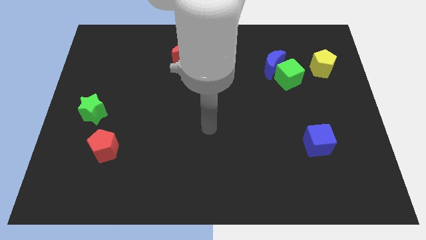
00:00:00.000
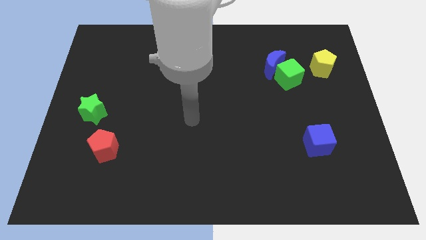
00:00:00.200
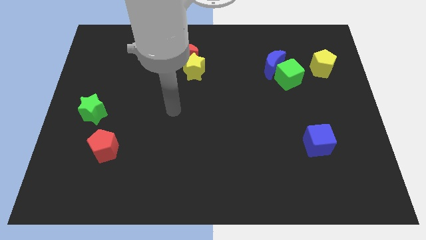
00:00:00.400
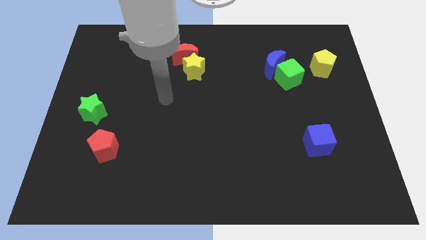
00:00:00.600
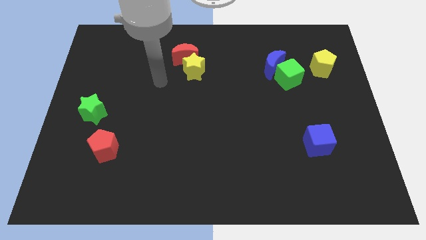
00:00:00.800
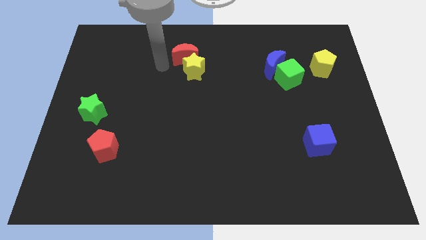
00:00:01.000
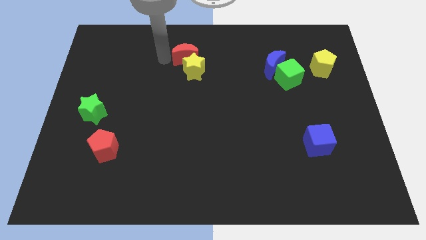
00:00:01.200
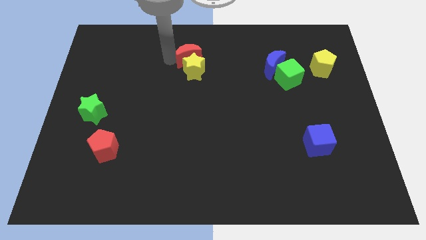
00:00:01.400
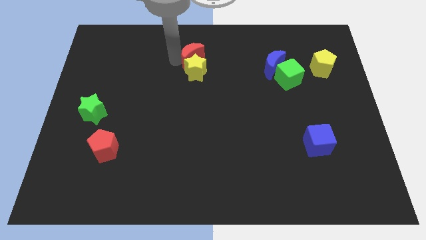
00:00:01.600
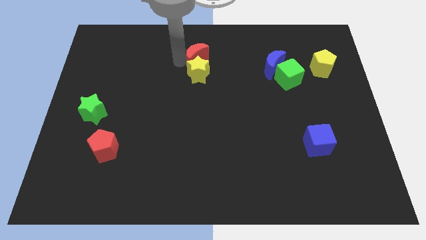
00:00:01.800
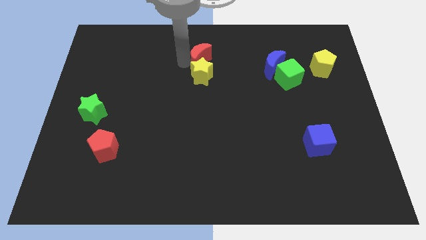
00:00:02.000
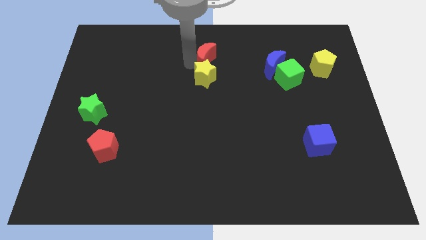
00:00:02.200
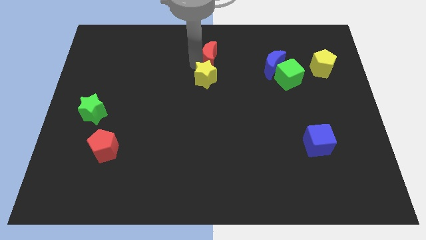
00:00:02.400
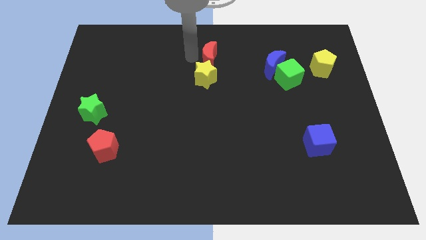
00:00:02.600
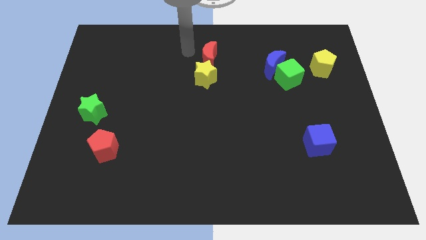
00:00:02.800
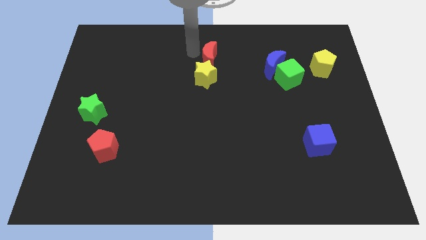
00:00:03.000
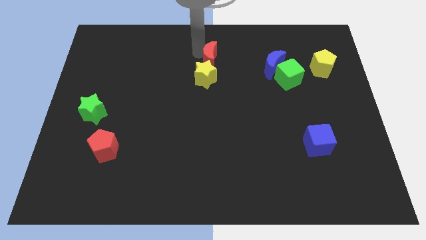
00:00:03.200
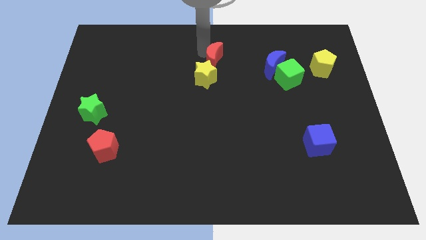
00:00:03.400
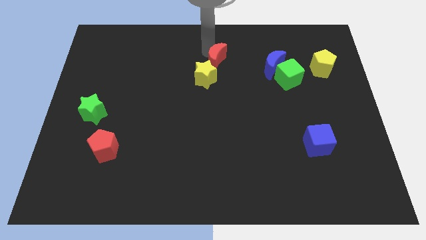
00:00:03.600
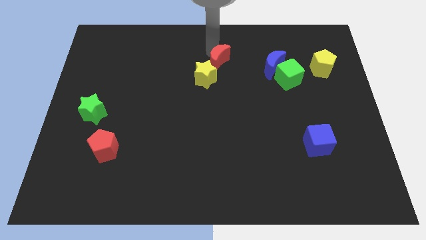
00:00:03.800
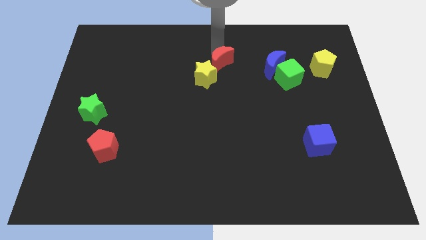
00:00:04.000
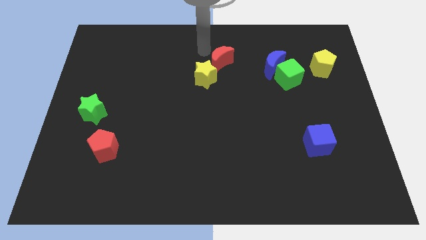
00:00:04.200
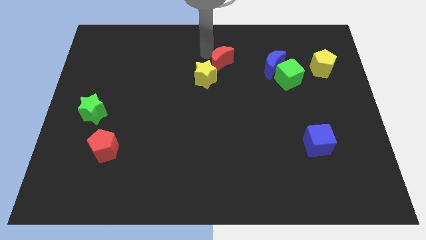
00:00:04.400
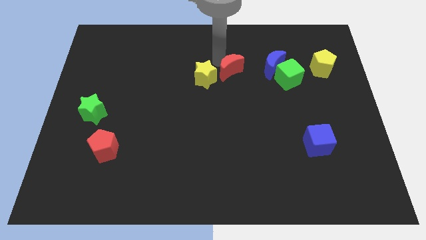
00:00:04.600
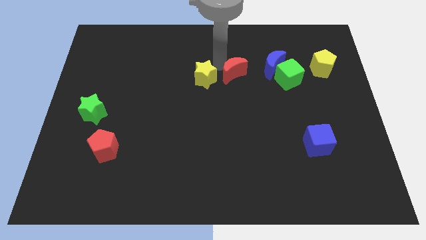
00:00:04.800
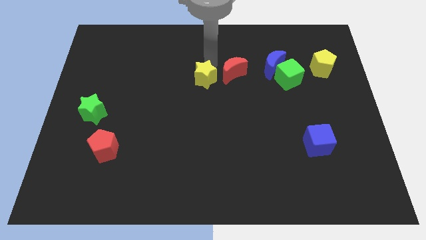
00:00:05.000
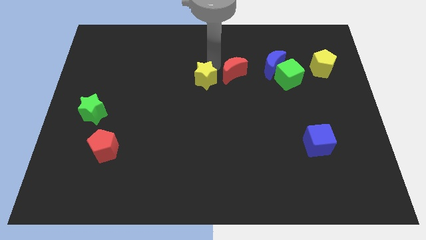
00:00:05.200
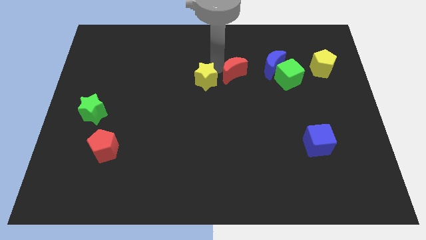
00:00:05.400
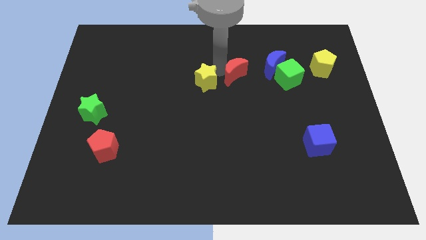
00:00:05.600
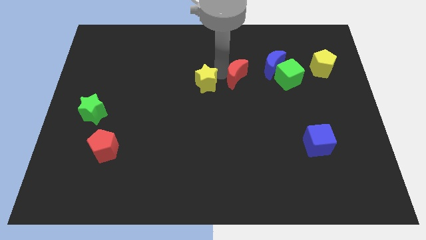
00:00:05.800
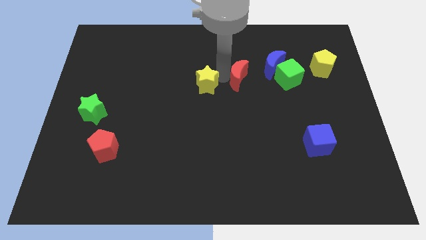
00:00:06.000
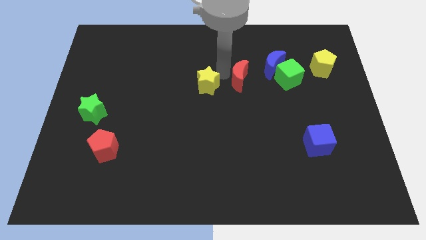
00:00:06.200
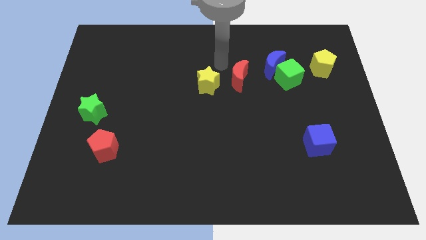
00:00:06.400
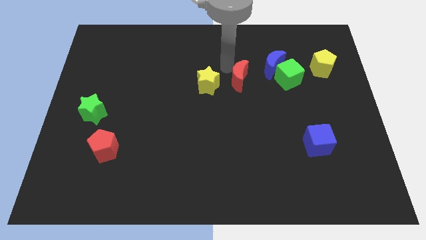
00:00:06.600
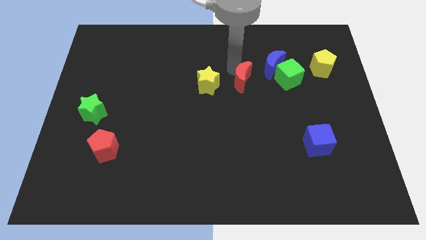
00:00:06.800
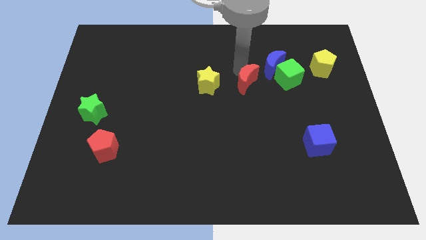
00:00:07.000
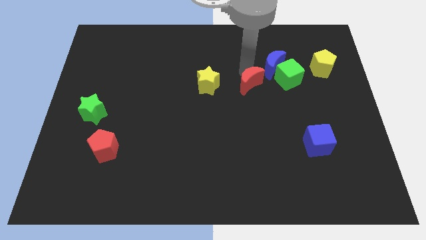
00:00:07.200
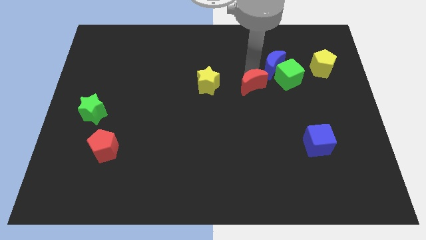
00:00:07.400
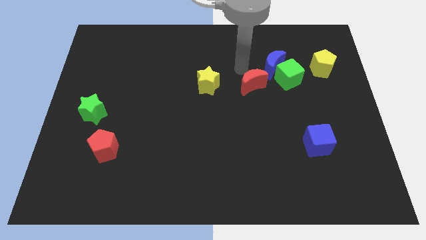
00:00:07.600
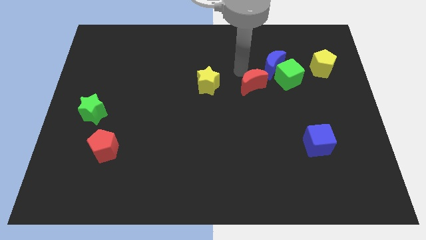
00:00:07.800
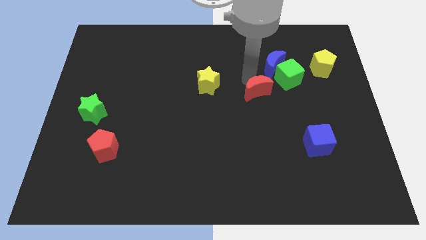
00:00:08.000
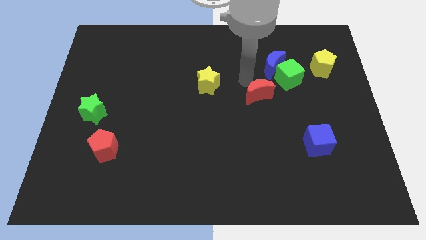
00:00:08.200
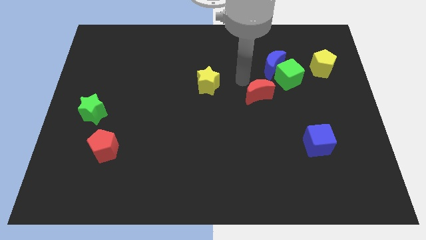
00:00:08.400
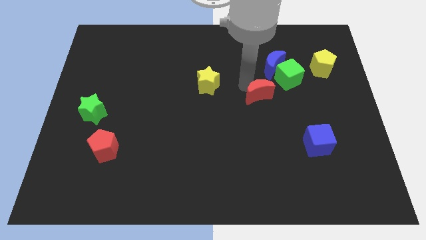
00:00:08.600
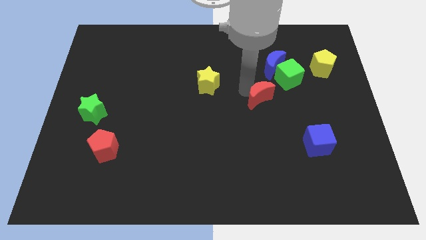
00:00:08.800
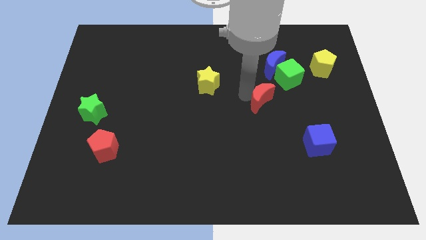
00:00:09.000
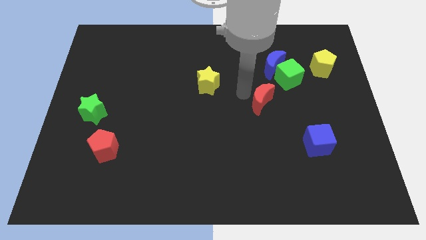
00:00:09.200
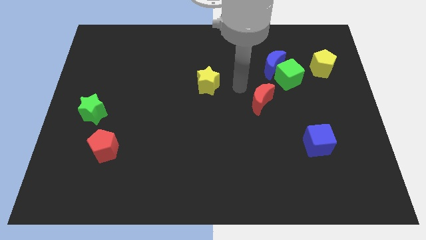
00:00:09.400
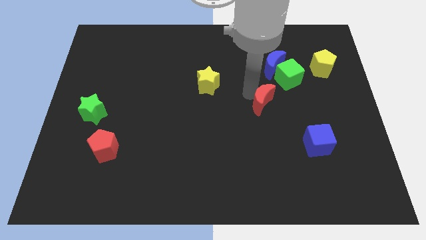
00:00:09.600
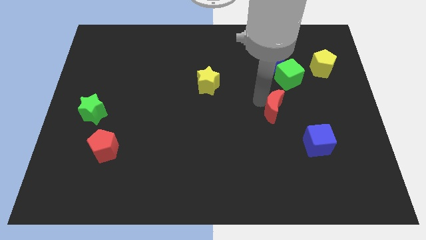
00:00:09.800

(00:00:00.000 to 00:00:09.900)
put the red moon to the top left side of the blue cube

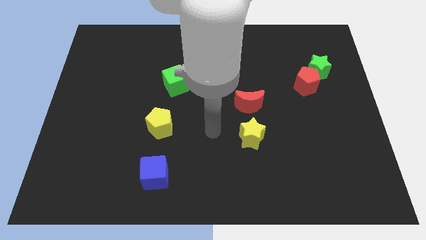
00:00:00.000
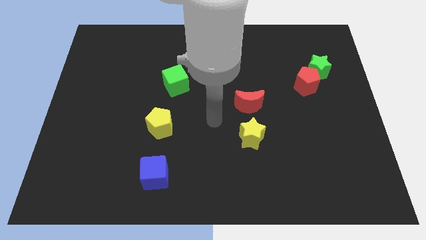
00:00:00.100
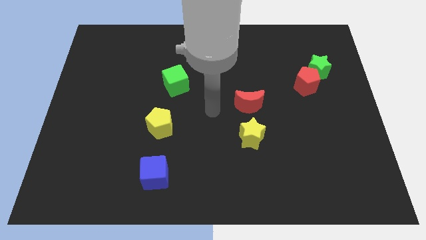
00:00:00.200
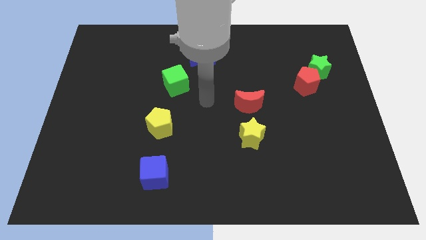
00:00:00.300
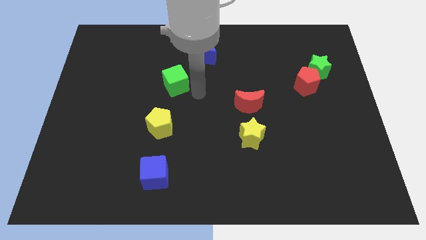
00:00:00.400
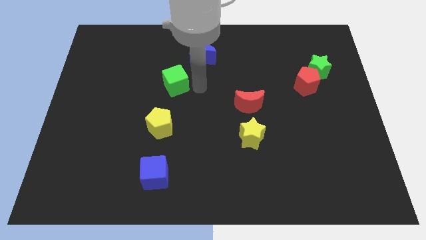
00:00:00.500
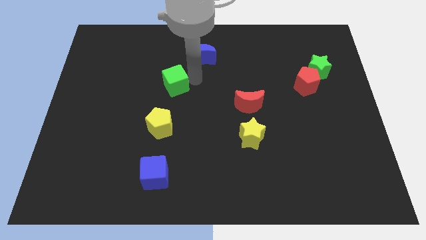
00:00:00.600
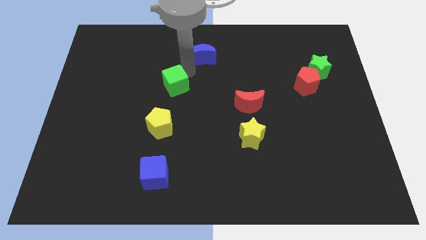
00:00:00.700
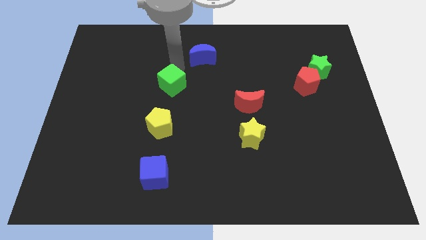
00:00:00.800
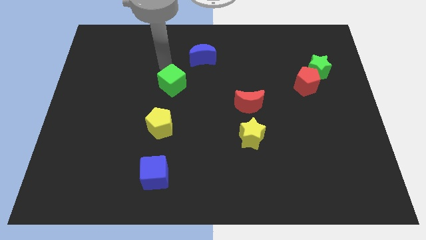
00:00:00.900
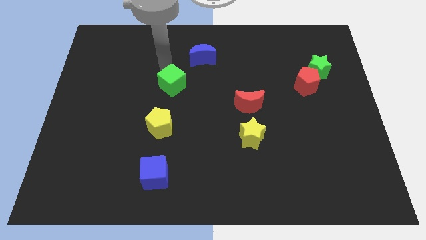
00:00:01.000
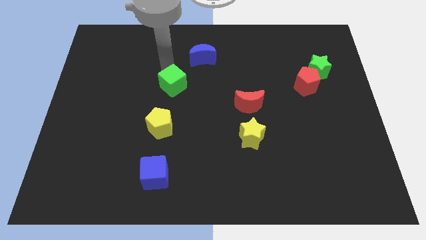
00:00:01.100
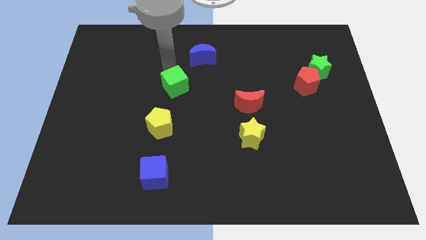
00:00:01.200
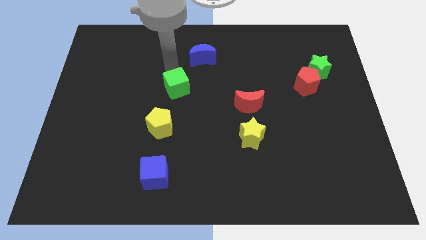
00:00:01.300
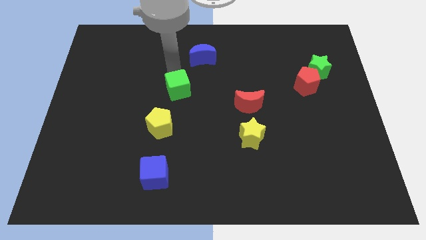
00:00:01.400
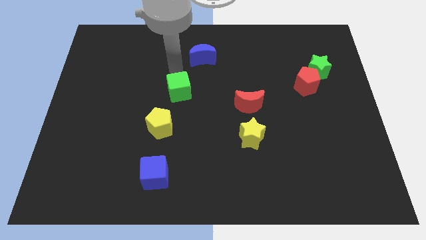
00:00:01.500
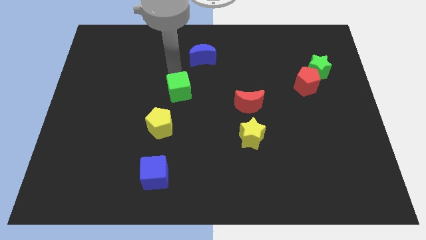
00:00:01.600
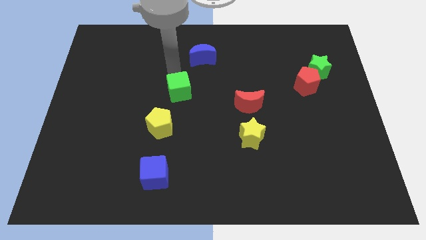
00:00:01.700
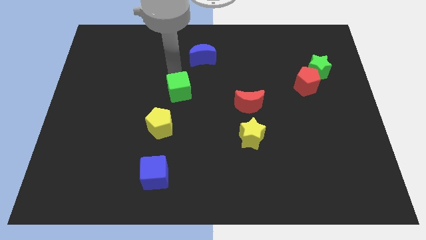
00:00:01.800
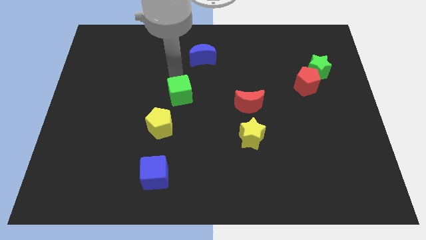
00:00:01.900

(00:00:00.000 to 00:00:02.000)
push the green cube diagonally up and to the right of the yellow pentagon

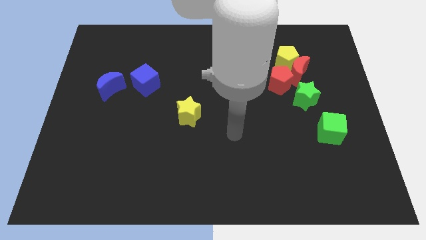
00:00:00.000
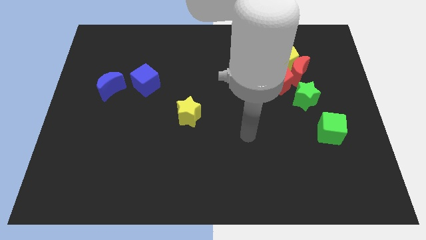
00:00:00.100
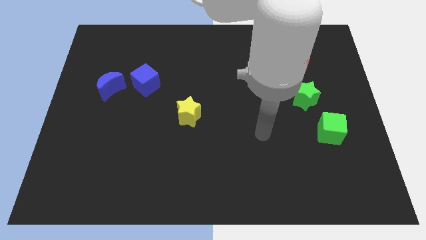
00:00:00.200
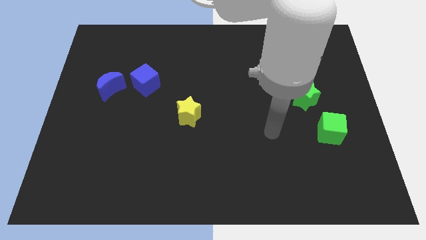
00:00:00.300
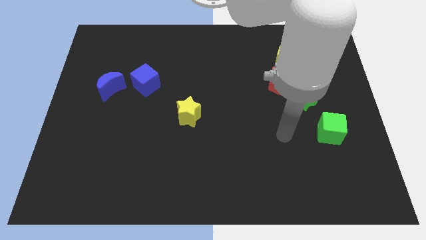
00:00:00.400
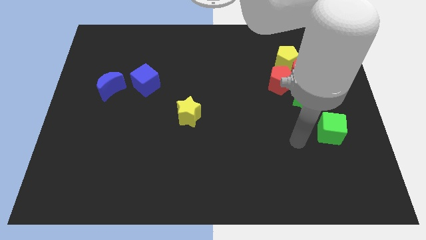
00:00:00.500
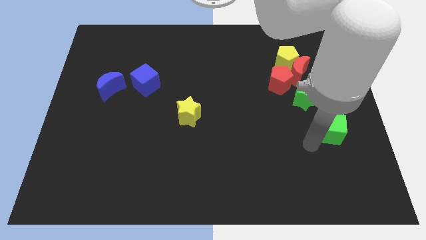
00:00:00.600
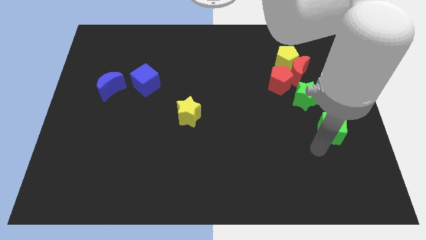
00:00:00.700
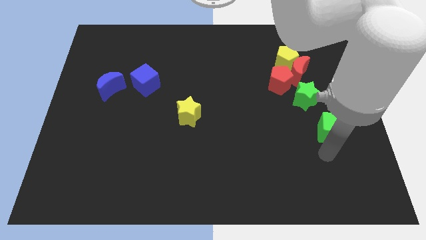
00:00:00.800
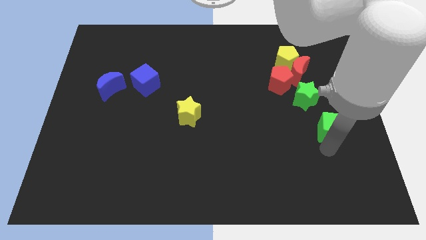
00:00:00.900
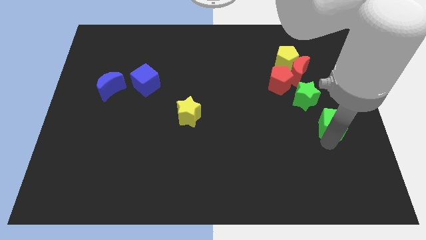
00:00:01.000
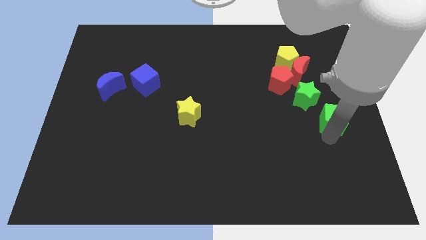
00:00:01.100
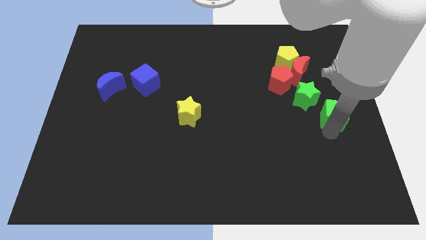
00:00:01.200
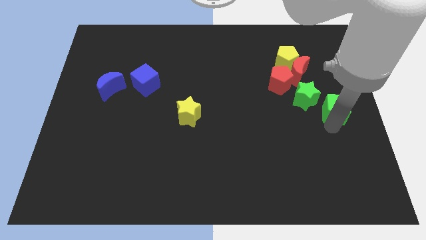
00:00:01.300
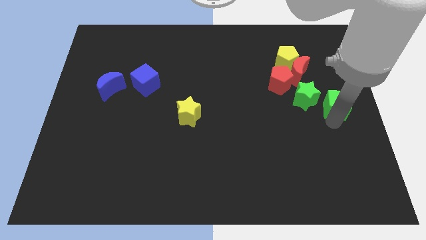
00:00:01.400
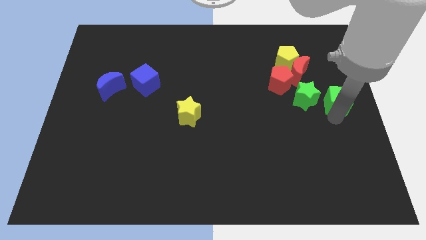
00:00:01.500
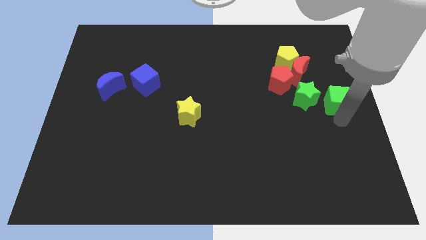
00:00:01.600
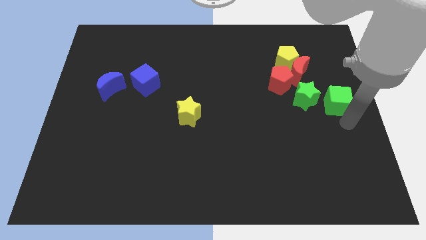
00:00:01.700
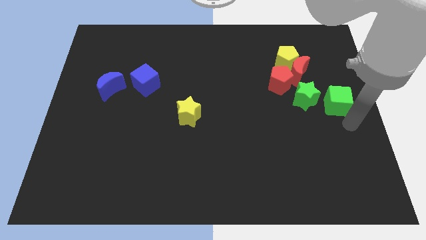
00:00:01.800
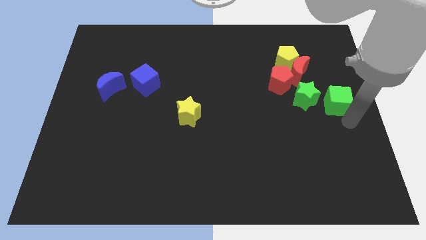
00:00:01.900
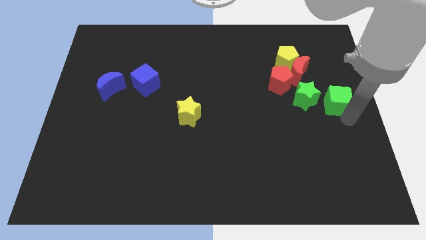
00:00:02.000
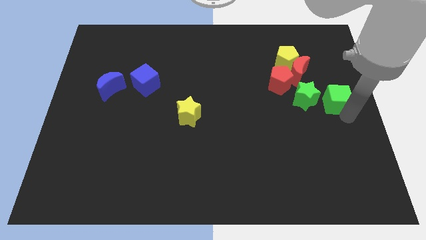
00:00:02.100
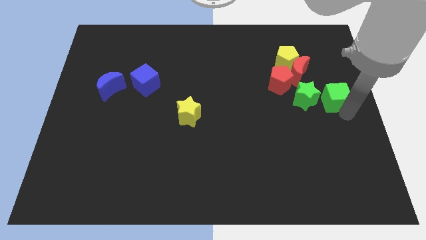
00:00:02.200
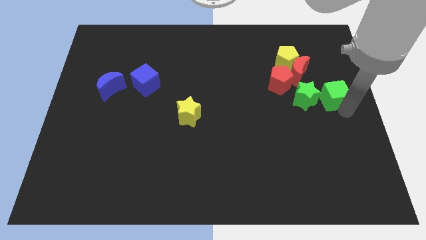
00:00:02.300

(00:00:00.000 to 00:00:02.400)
put the green cube to the top right of the green star
